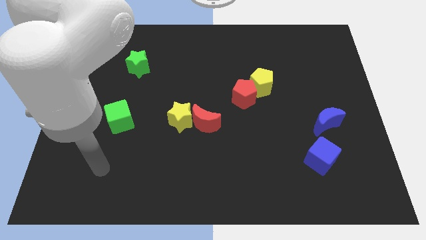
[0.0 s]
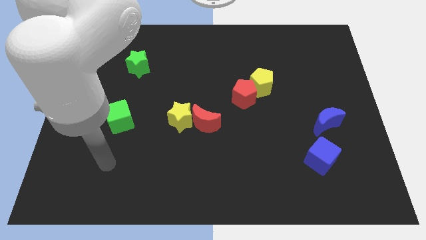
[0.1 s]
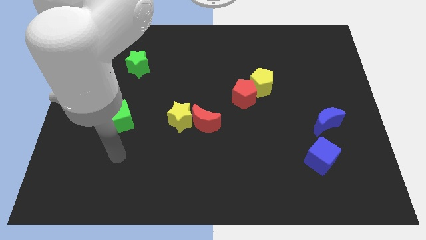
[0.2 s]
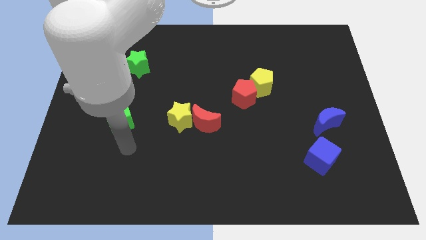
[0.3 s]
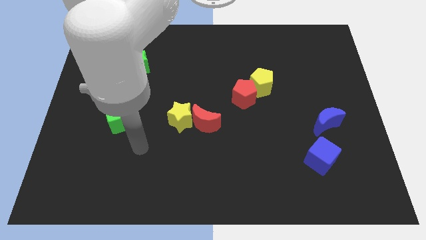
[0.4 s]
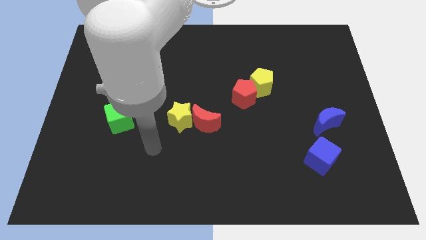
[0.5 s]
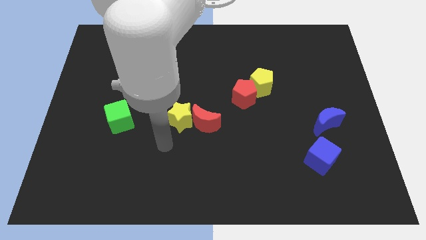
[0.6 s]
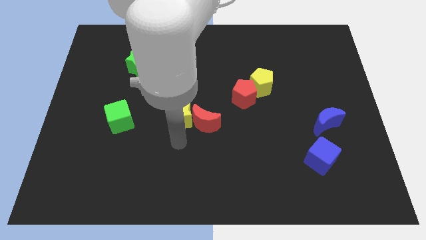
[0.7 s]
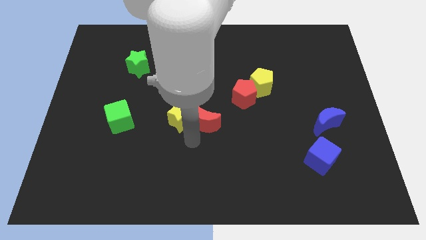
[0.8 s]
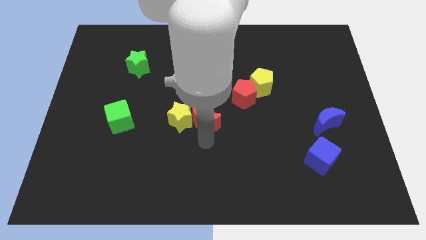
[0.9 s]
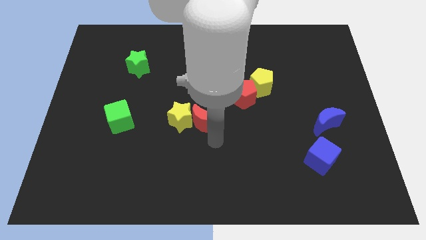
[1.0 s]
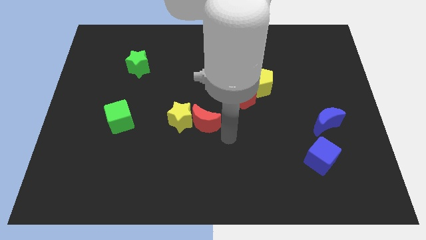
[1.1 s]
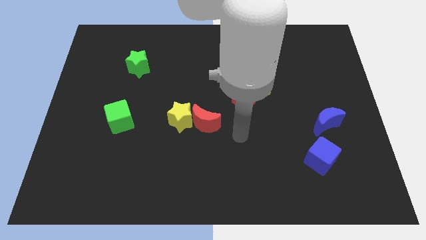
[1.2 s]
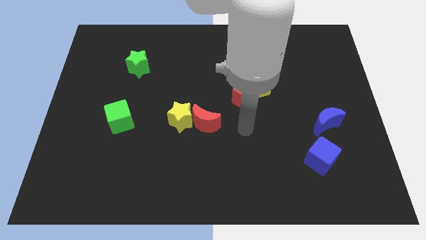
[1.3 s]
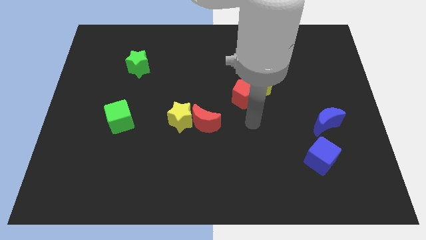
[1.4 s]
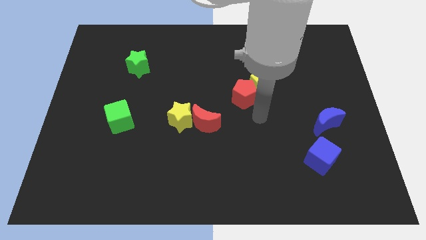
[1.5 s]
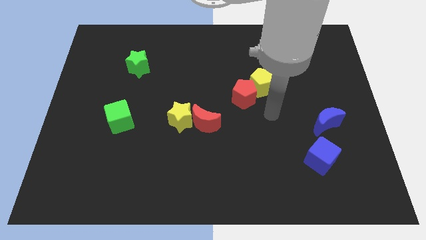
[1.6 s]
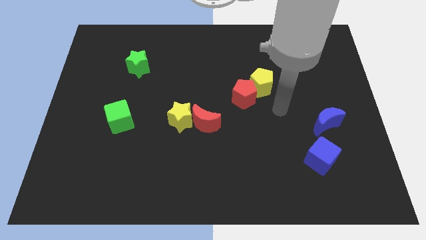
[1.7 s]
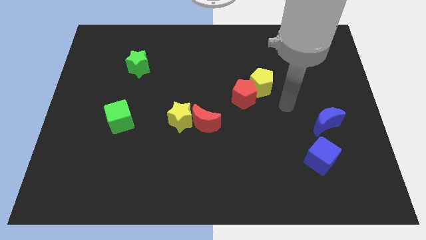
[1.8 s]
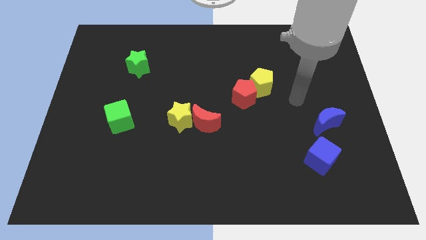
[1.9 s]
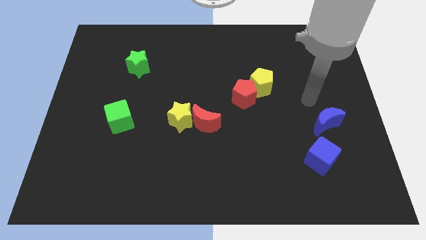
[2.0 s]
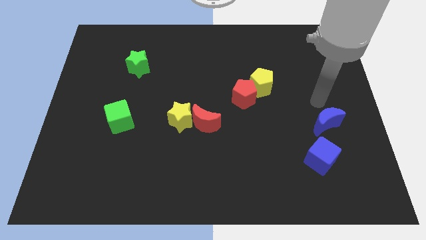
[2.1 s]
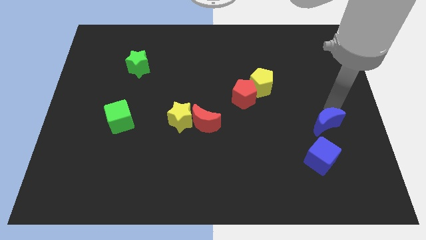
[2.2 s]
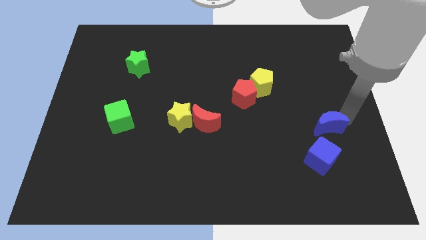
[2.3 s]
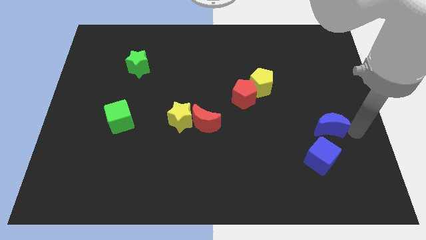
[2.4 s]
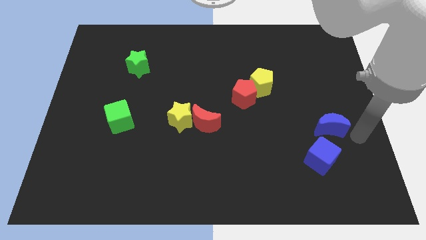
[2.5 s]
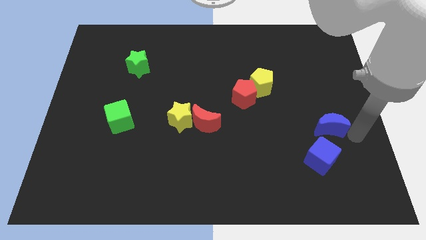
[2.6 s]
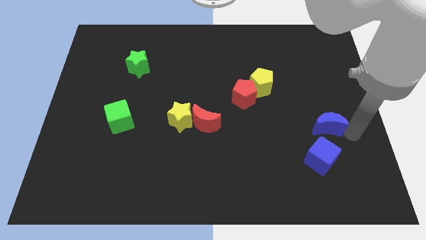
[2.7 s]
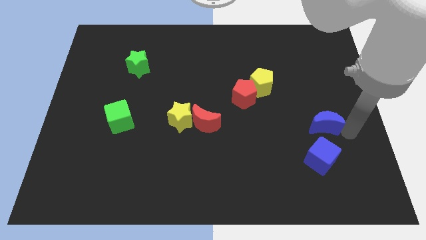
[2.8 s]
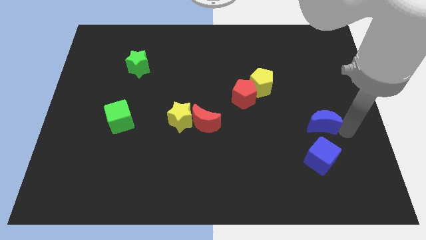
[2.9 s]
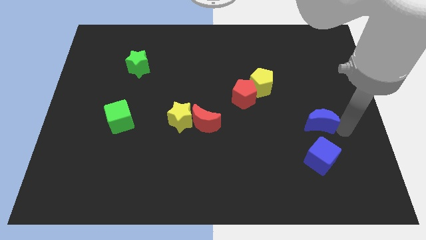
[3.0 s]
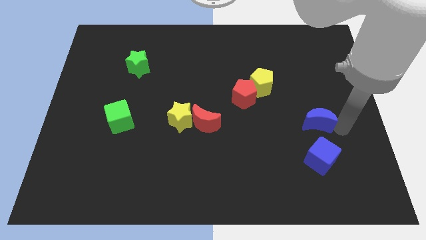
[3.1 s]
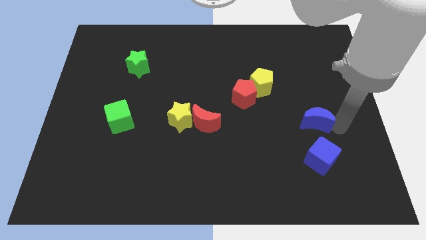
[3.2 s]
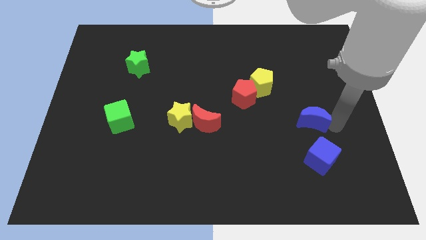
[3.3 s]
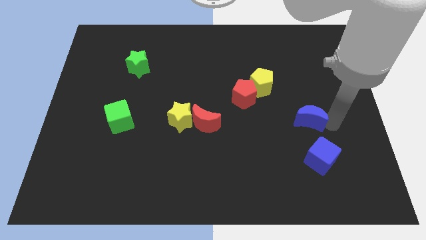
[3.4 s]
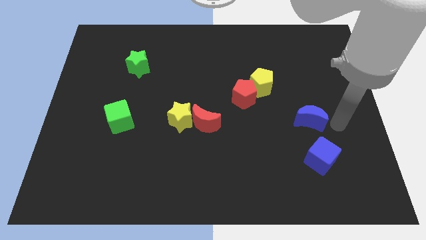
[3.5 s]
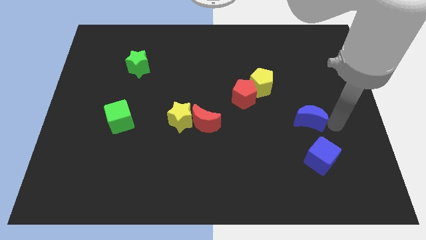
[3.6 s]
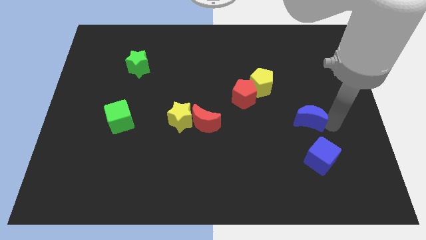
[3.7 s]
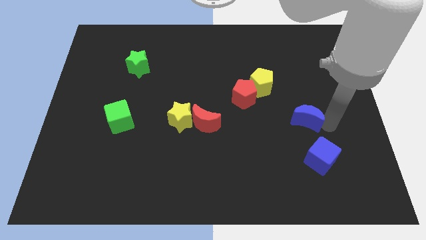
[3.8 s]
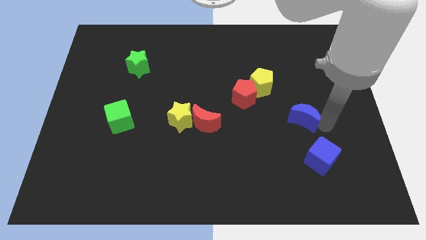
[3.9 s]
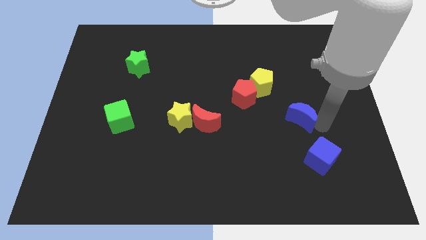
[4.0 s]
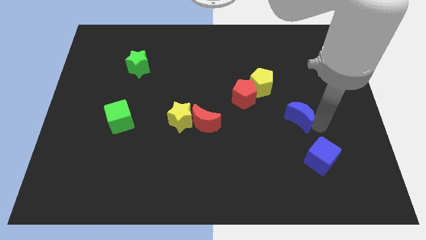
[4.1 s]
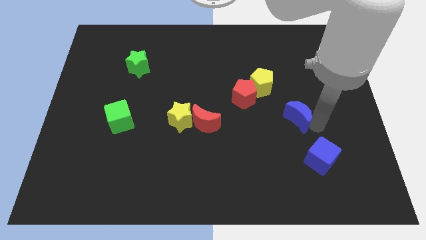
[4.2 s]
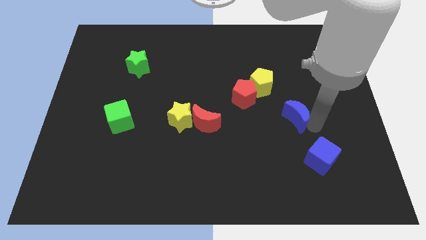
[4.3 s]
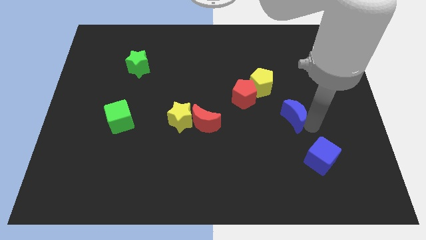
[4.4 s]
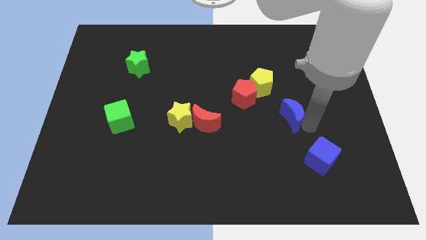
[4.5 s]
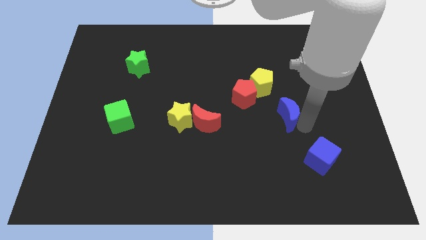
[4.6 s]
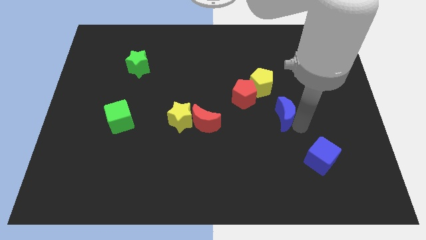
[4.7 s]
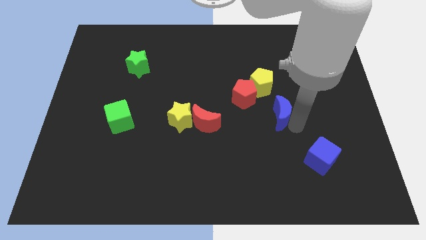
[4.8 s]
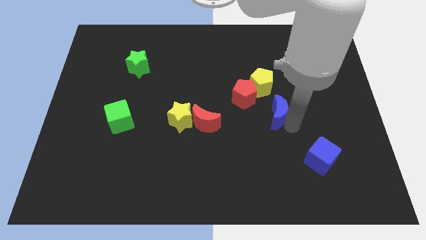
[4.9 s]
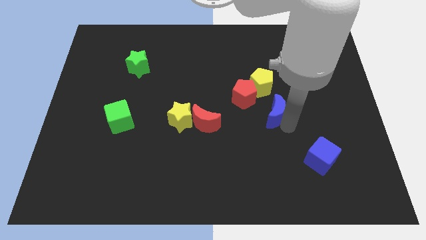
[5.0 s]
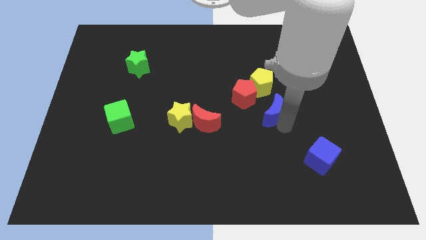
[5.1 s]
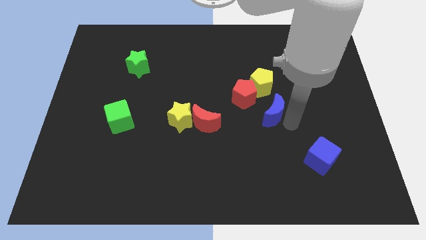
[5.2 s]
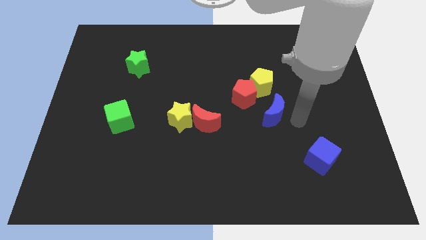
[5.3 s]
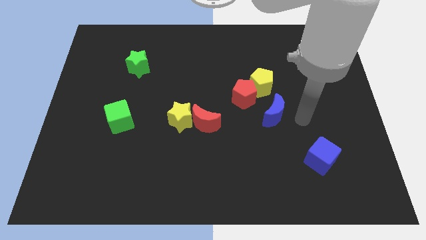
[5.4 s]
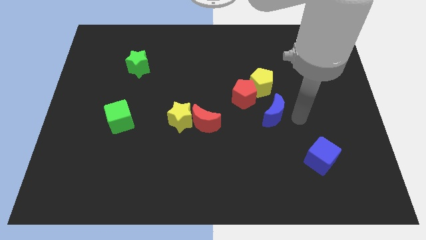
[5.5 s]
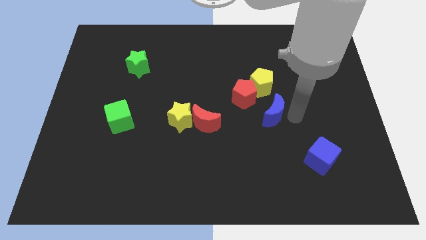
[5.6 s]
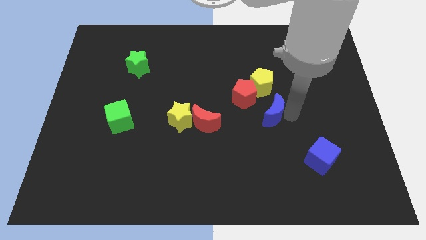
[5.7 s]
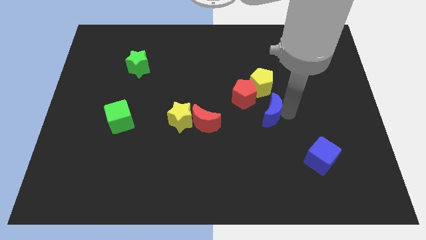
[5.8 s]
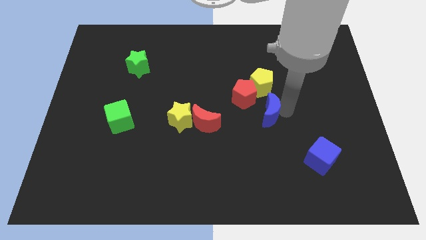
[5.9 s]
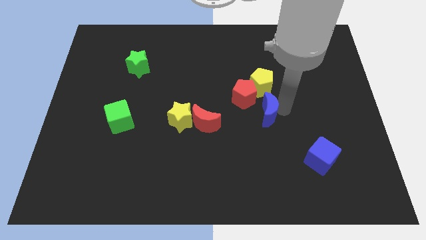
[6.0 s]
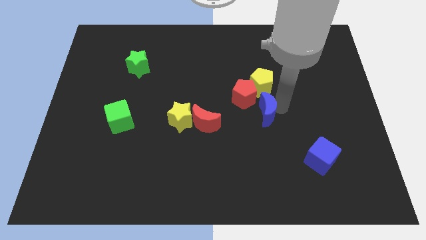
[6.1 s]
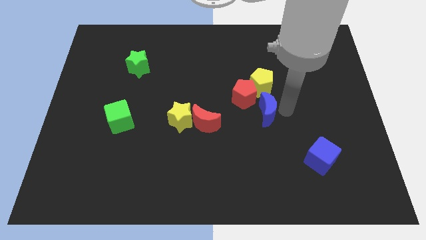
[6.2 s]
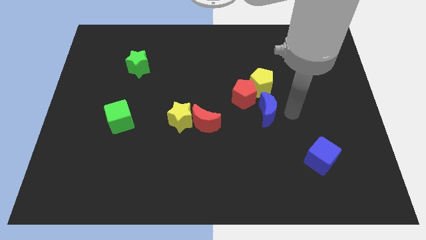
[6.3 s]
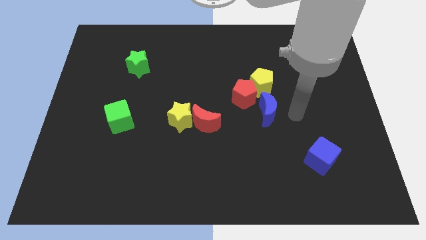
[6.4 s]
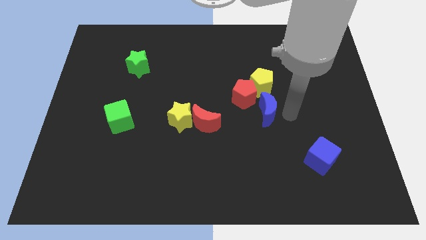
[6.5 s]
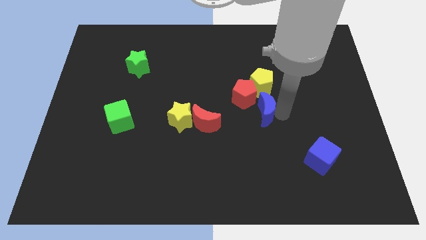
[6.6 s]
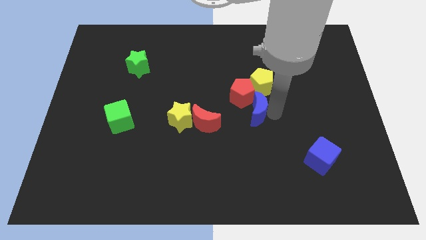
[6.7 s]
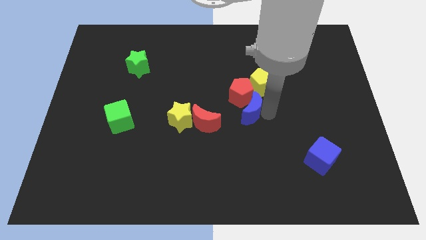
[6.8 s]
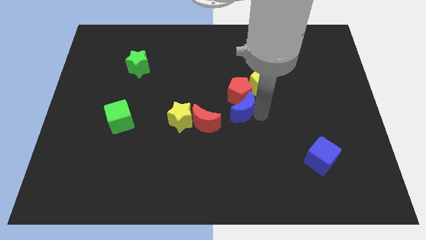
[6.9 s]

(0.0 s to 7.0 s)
push the blue moon diagonally up and to the right of the red moon

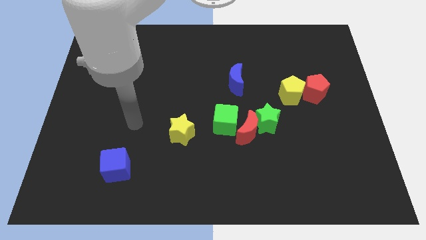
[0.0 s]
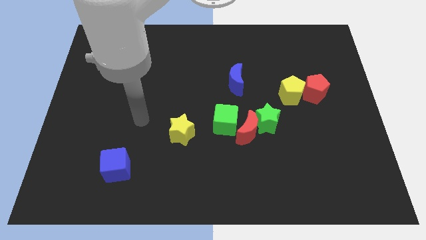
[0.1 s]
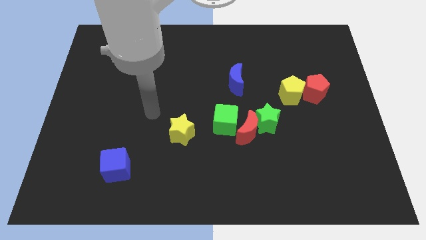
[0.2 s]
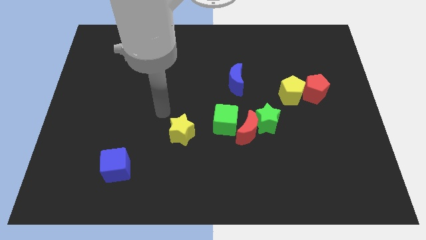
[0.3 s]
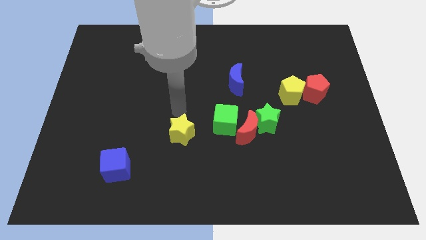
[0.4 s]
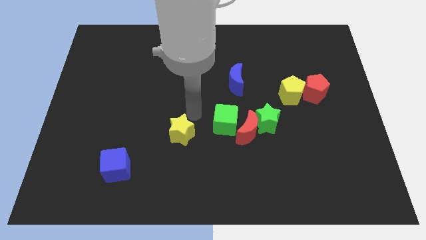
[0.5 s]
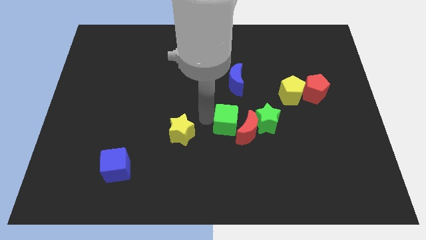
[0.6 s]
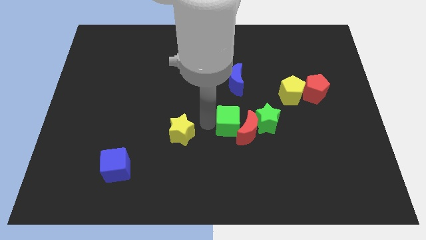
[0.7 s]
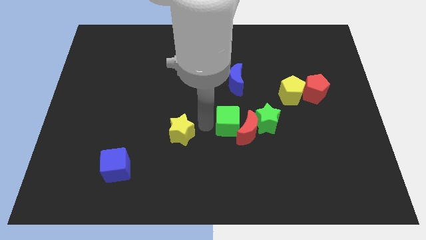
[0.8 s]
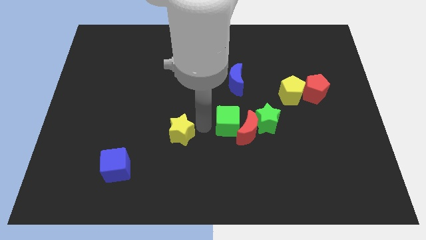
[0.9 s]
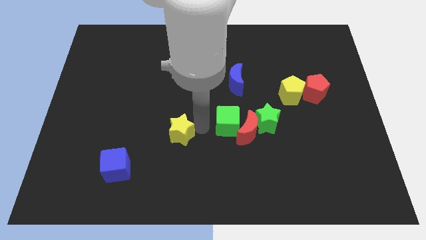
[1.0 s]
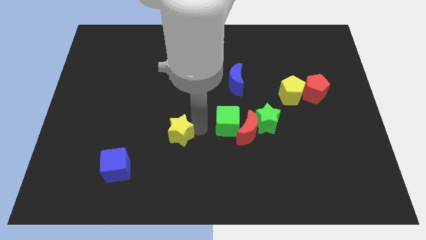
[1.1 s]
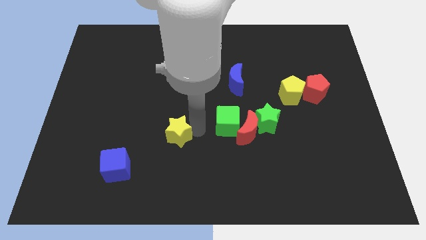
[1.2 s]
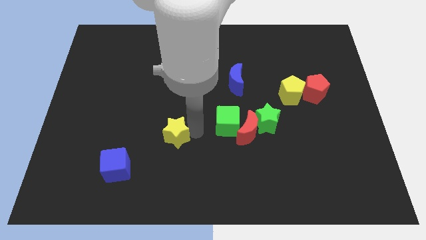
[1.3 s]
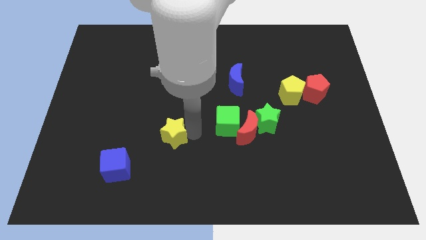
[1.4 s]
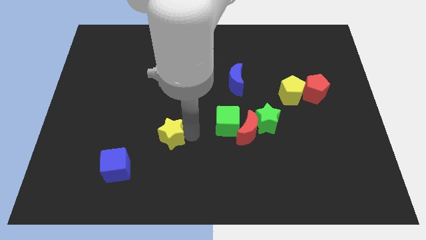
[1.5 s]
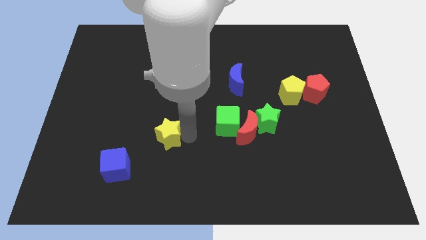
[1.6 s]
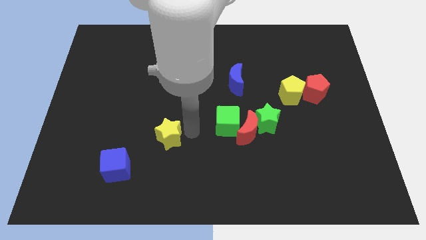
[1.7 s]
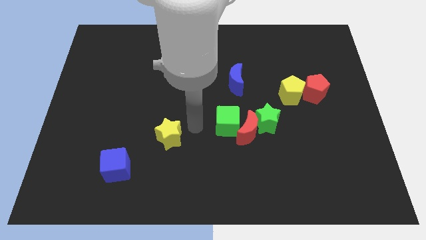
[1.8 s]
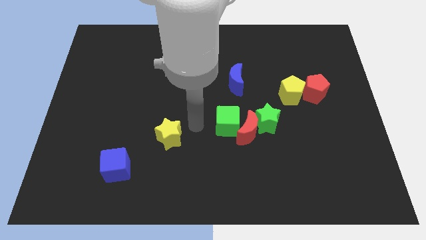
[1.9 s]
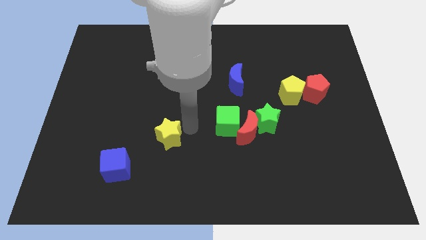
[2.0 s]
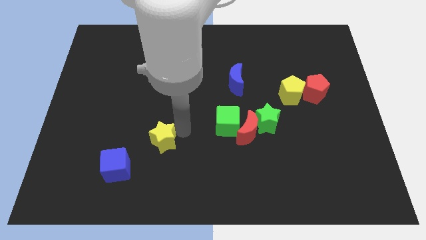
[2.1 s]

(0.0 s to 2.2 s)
move the yellow star to the top right of the blue cube
